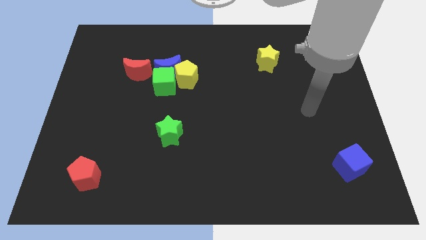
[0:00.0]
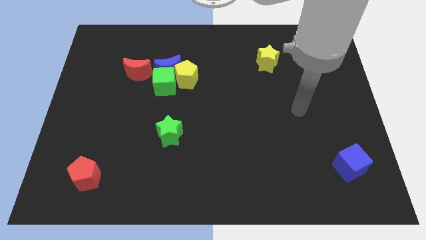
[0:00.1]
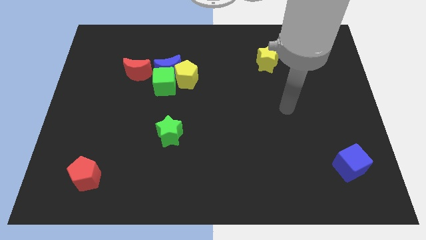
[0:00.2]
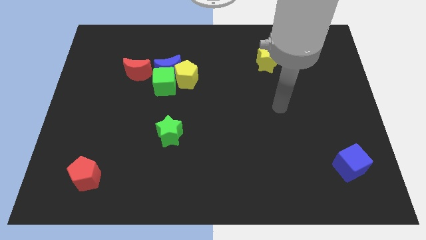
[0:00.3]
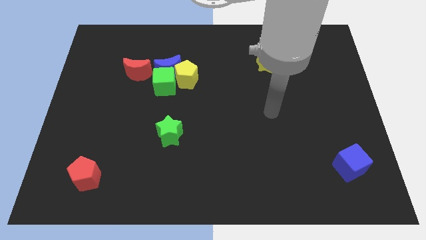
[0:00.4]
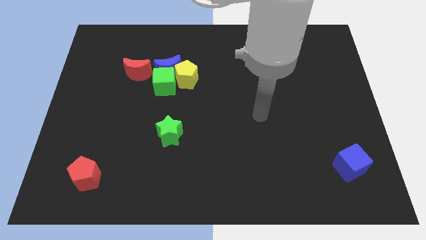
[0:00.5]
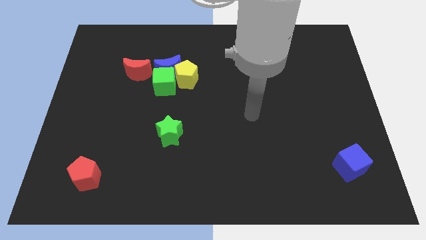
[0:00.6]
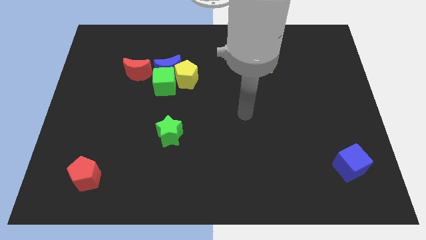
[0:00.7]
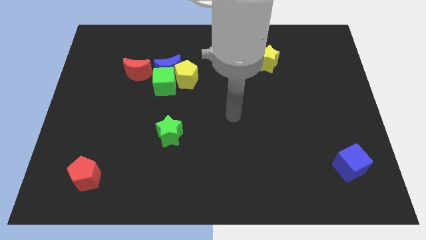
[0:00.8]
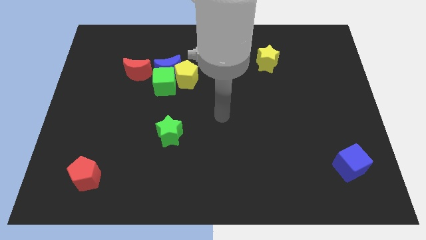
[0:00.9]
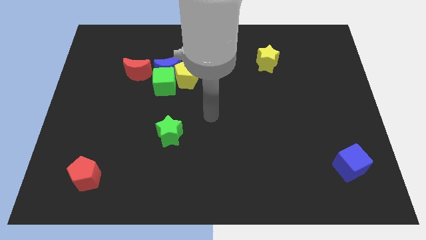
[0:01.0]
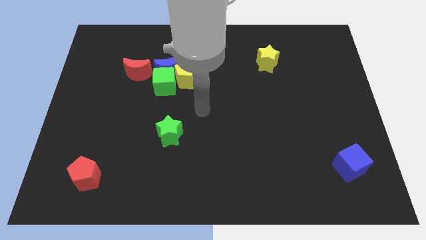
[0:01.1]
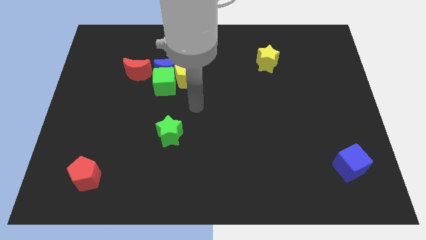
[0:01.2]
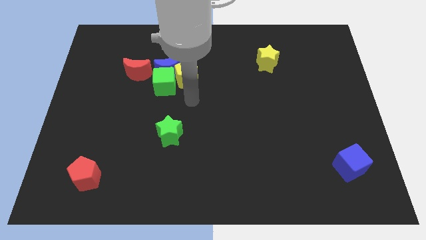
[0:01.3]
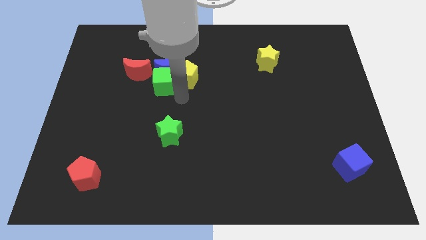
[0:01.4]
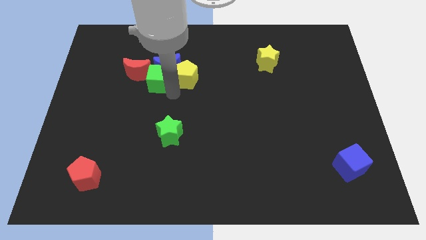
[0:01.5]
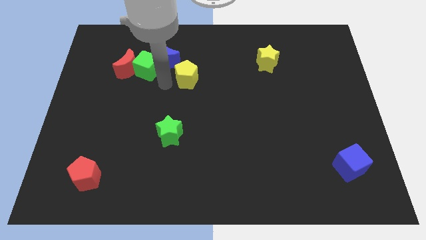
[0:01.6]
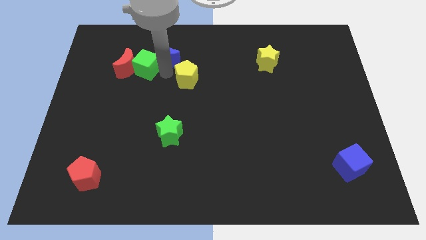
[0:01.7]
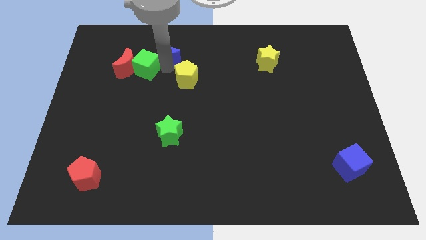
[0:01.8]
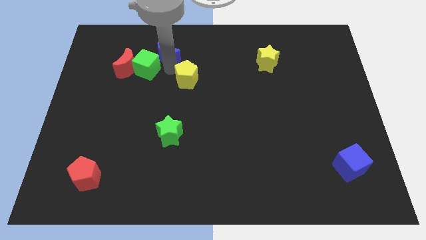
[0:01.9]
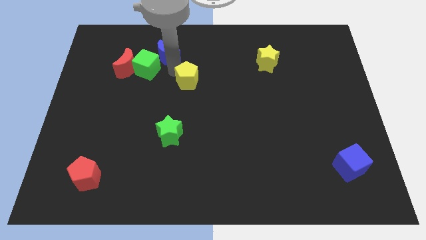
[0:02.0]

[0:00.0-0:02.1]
move the yellow pentagon away from the blue moon and green cube

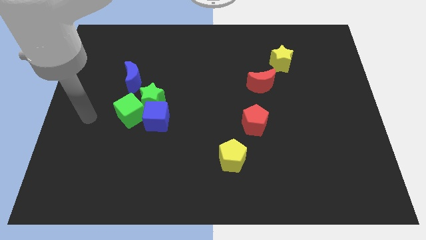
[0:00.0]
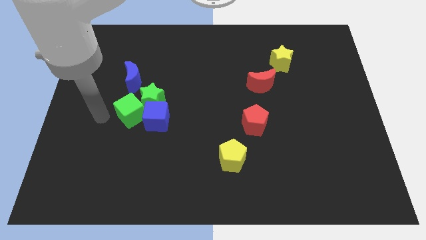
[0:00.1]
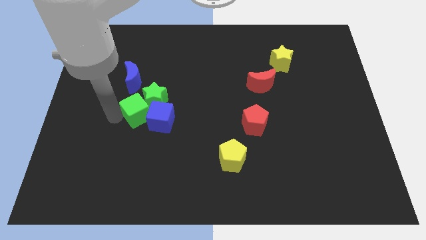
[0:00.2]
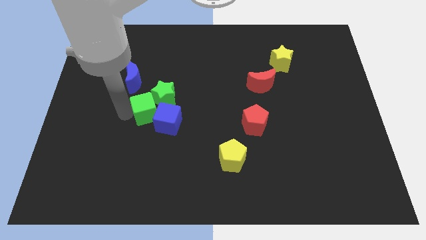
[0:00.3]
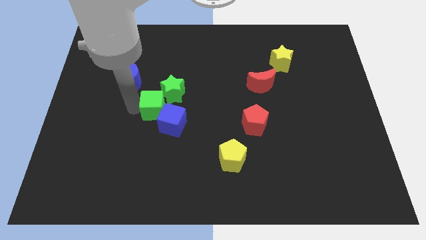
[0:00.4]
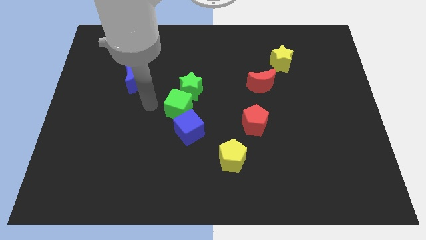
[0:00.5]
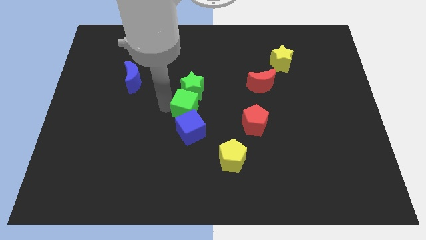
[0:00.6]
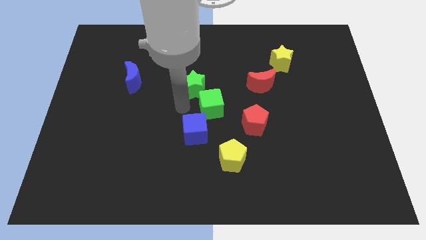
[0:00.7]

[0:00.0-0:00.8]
move the blue cube away from the green star and green cube

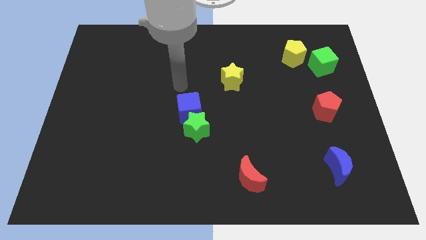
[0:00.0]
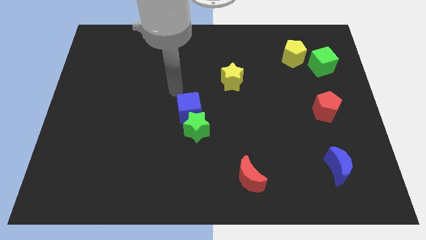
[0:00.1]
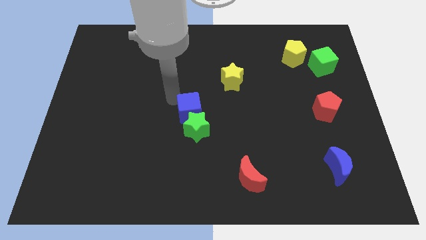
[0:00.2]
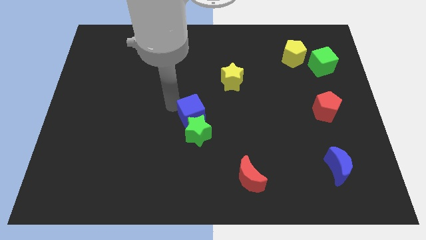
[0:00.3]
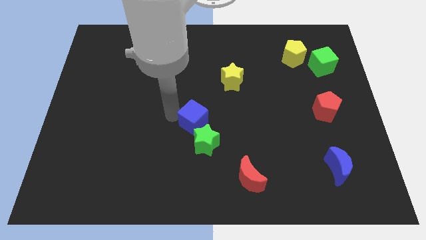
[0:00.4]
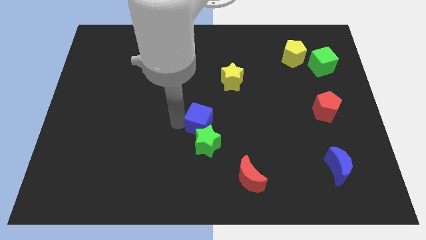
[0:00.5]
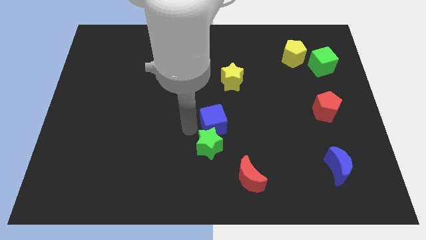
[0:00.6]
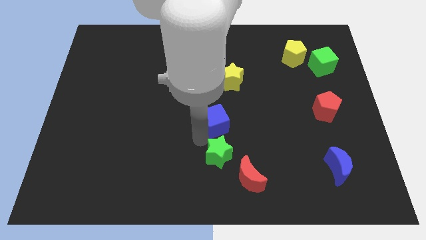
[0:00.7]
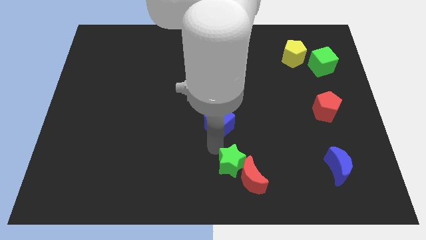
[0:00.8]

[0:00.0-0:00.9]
pull the blue cube apart from the green star

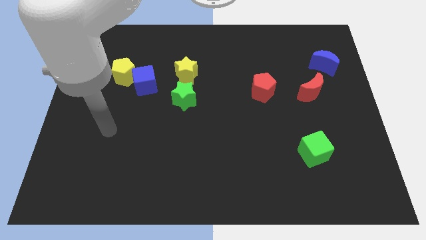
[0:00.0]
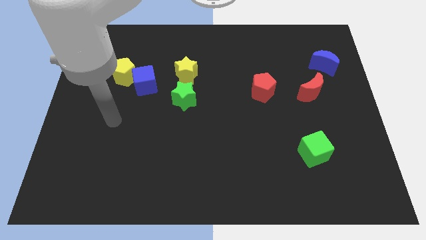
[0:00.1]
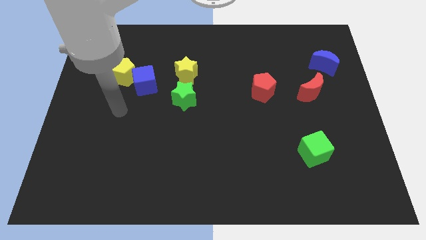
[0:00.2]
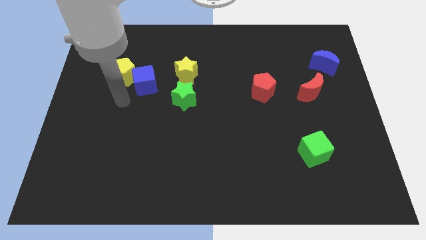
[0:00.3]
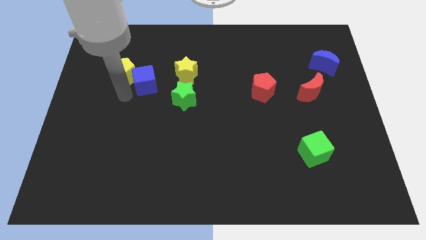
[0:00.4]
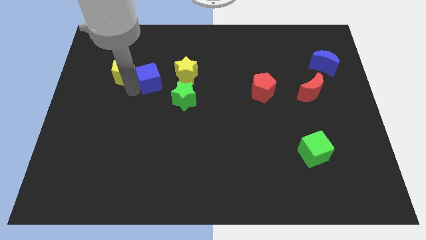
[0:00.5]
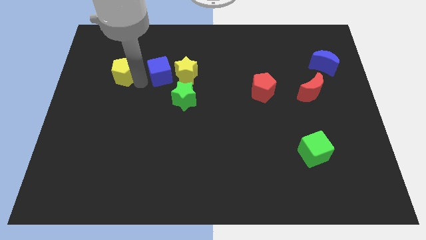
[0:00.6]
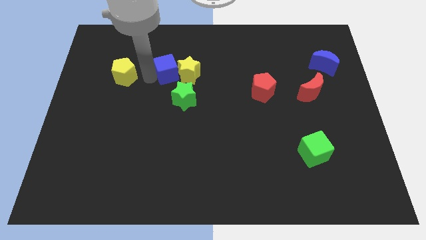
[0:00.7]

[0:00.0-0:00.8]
move the yellow pentagon away from the blue cube

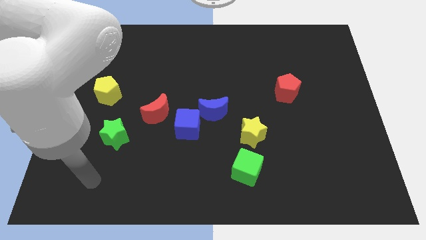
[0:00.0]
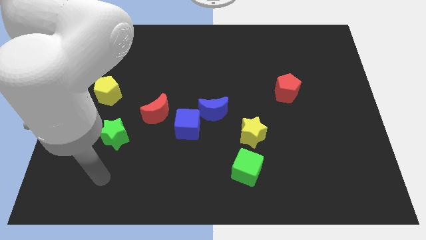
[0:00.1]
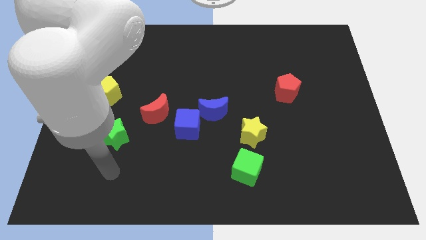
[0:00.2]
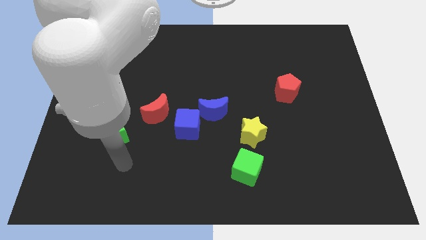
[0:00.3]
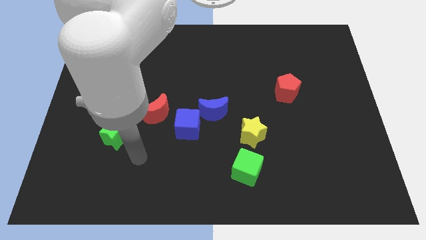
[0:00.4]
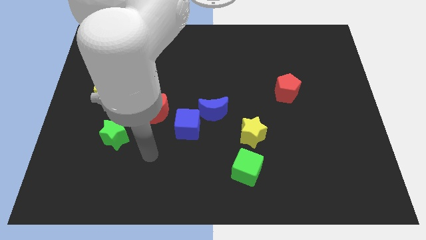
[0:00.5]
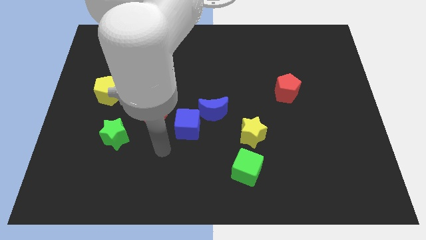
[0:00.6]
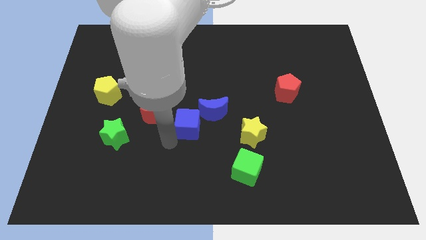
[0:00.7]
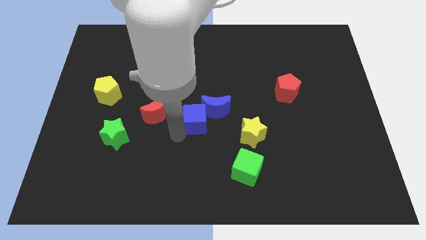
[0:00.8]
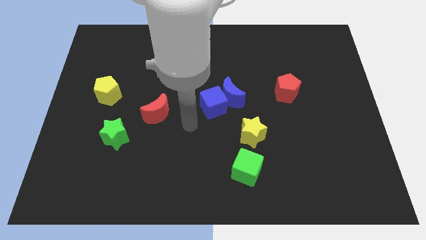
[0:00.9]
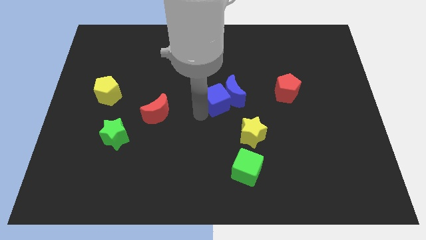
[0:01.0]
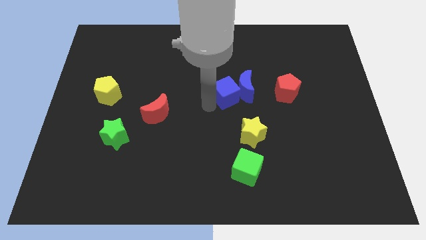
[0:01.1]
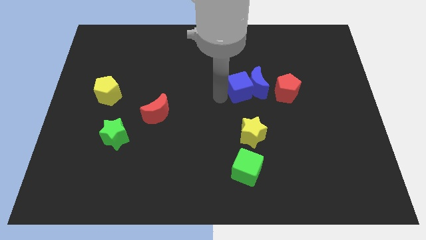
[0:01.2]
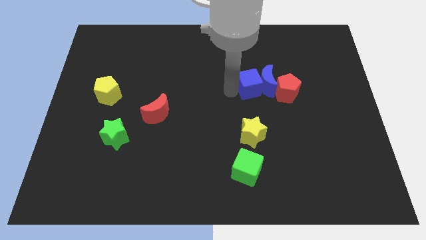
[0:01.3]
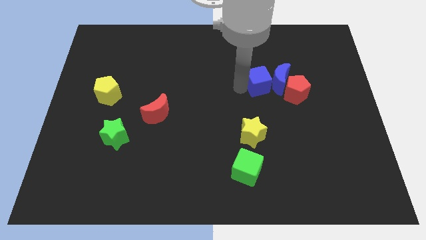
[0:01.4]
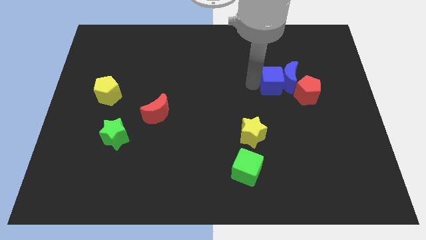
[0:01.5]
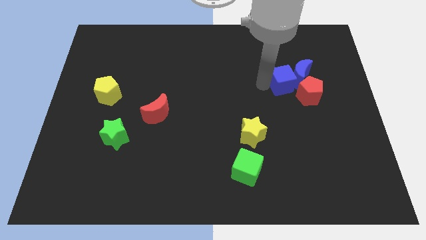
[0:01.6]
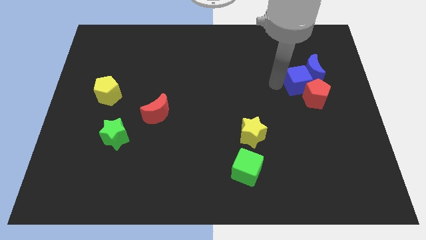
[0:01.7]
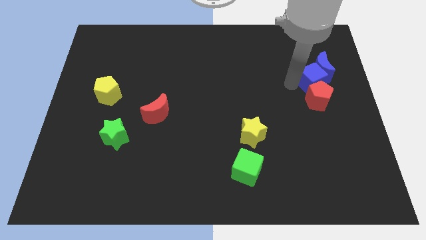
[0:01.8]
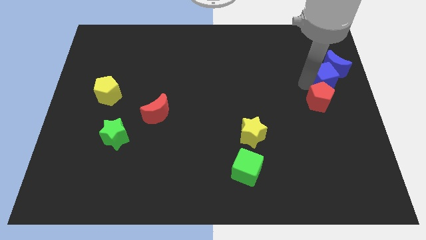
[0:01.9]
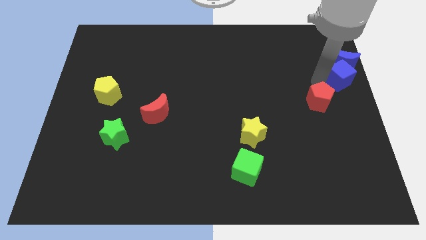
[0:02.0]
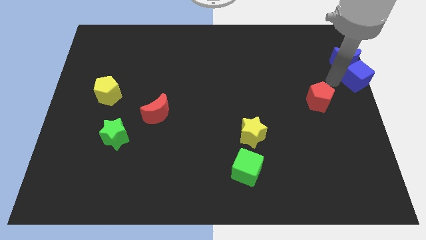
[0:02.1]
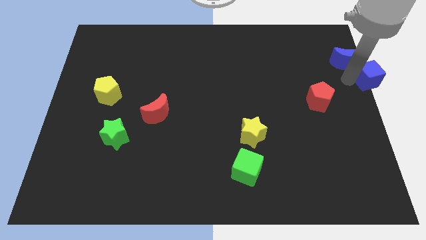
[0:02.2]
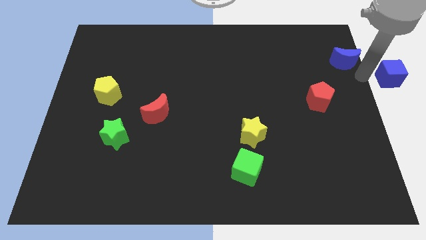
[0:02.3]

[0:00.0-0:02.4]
move the blue moon away from the blue cube

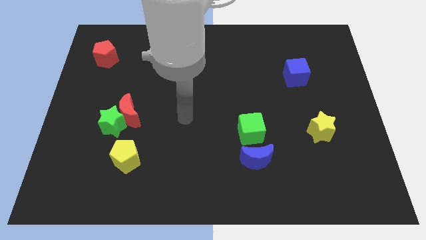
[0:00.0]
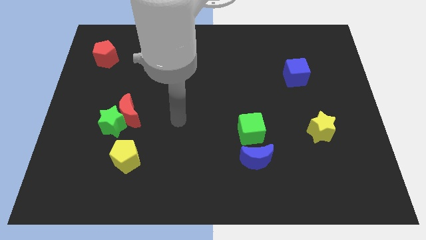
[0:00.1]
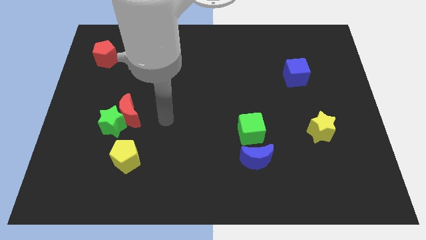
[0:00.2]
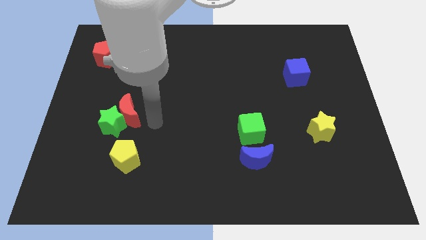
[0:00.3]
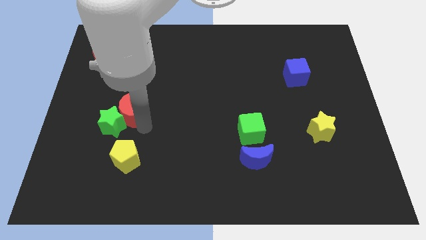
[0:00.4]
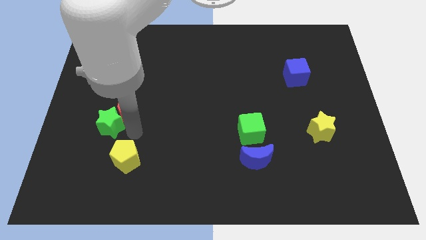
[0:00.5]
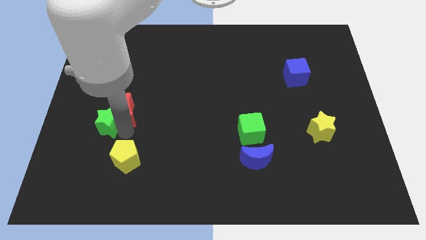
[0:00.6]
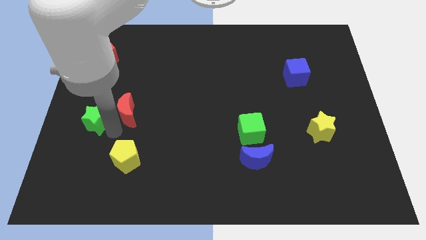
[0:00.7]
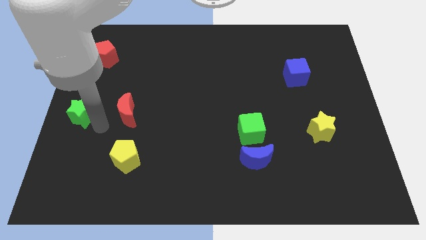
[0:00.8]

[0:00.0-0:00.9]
move the red moon away from the green star

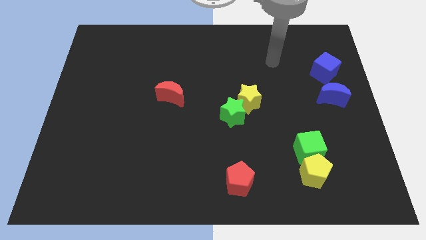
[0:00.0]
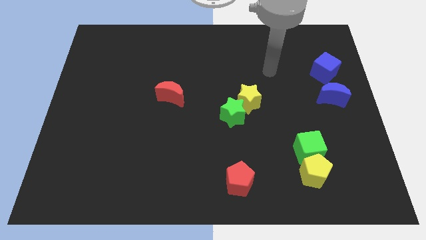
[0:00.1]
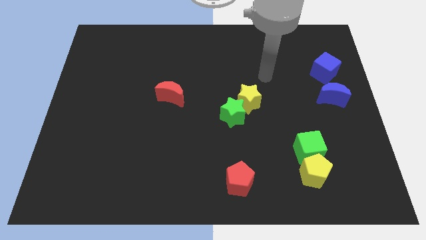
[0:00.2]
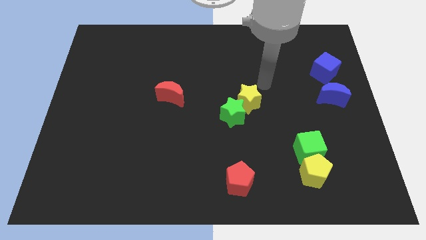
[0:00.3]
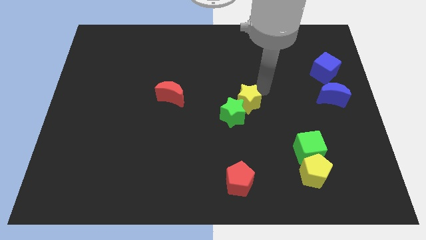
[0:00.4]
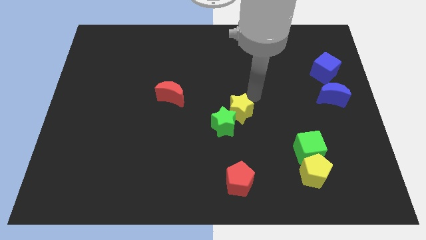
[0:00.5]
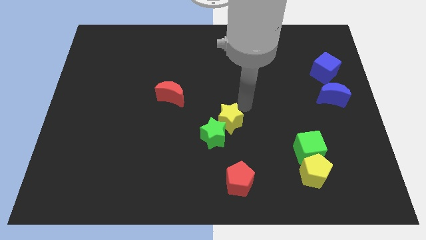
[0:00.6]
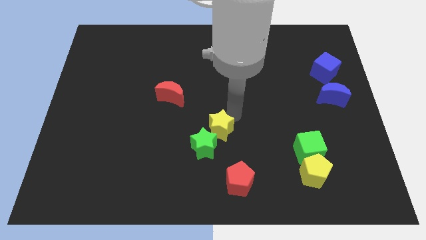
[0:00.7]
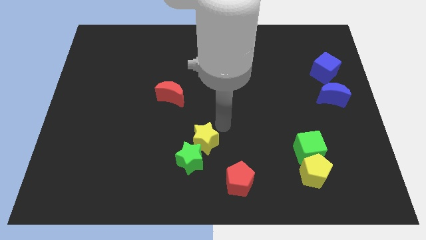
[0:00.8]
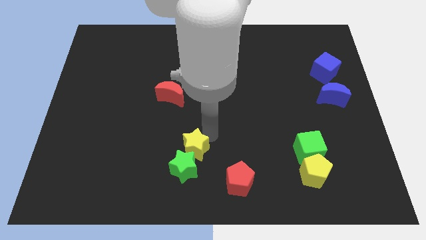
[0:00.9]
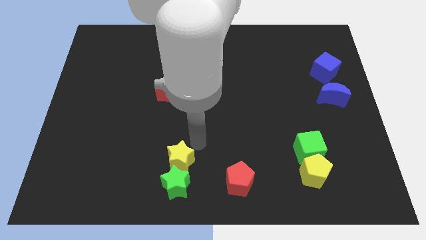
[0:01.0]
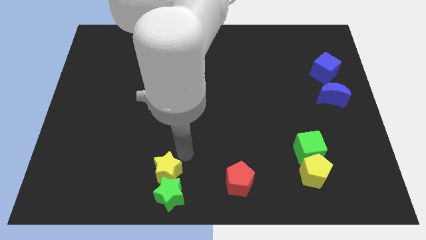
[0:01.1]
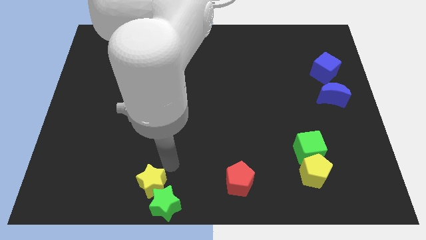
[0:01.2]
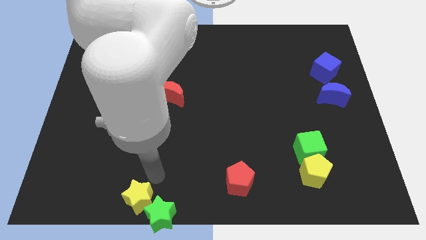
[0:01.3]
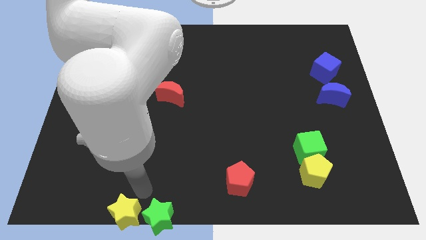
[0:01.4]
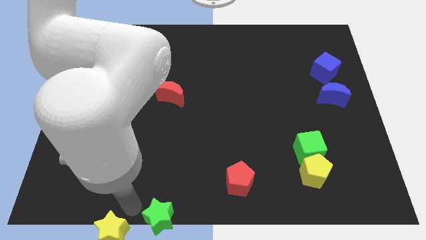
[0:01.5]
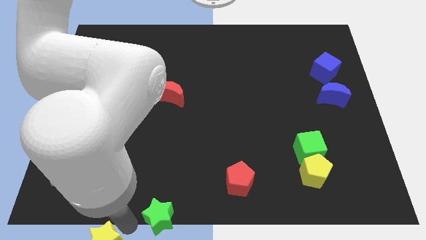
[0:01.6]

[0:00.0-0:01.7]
move the green star away from the yellow star
